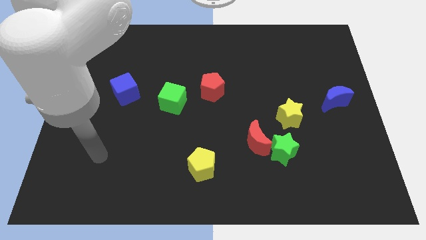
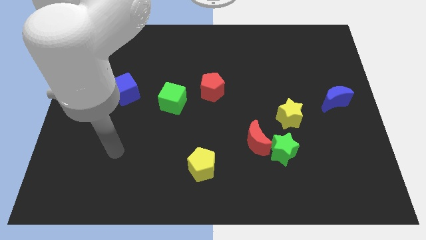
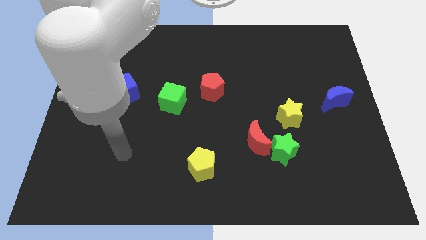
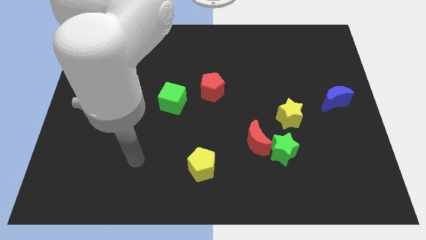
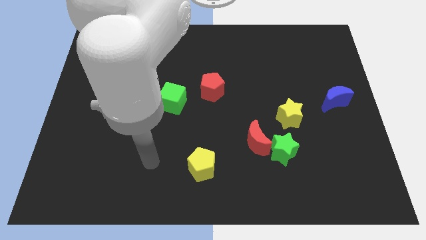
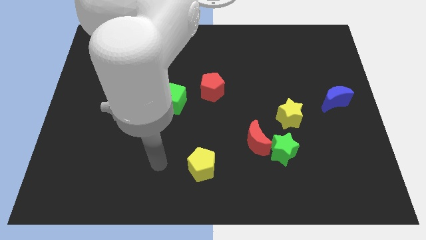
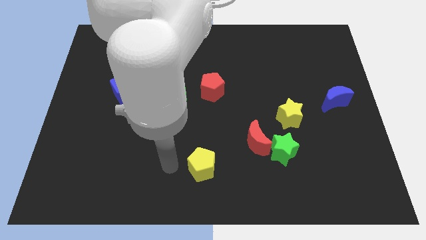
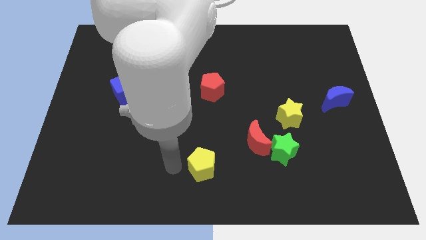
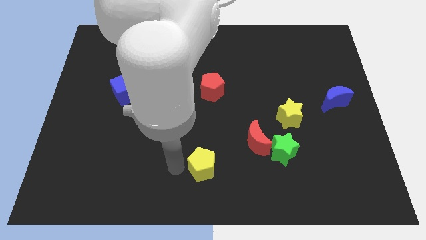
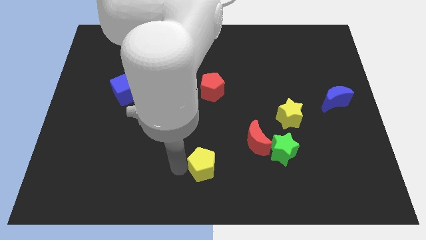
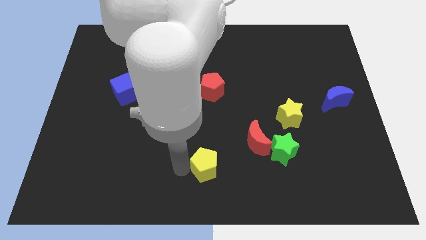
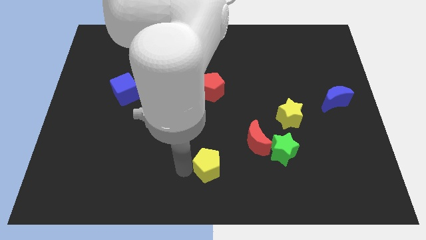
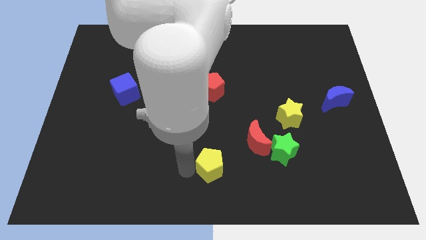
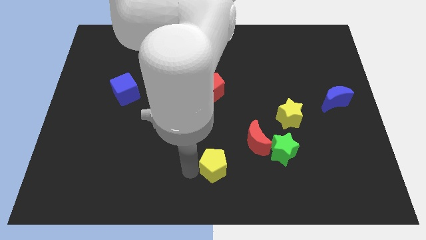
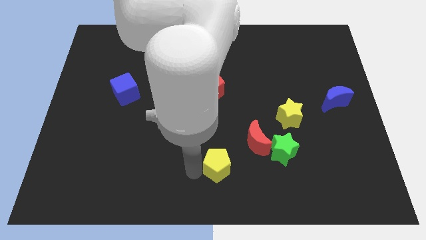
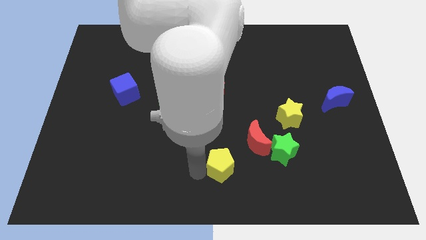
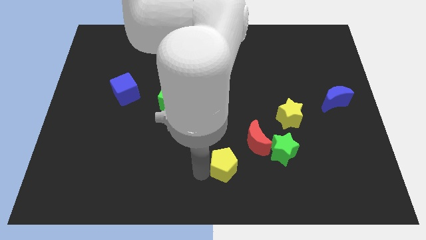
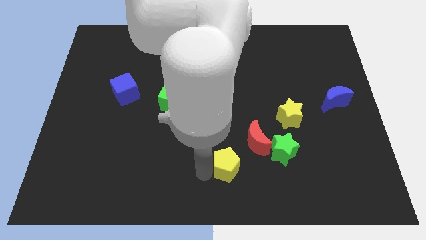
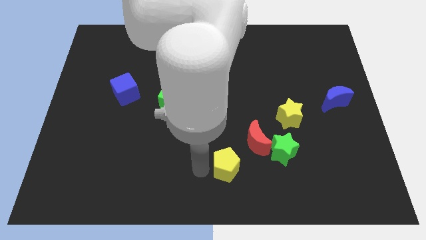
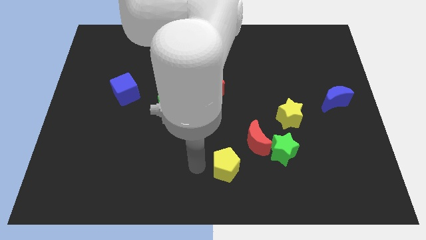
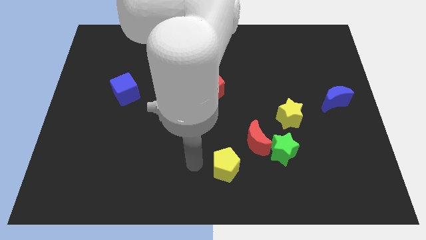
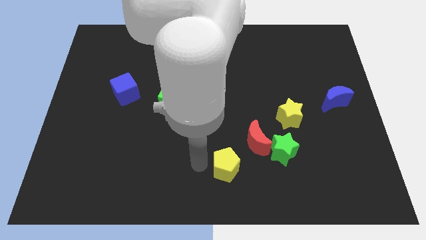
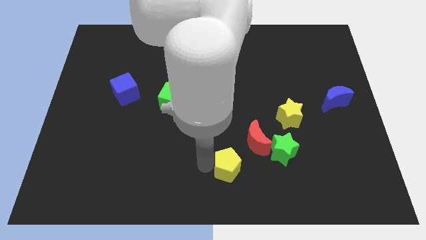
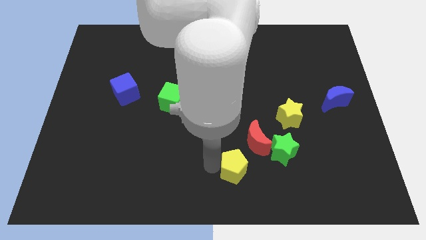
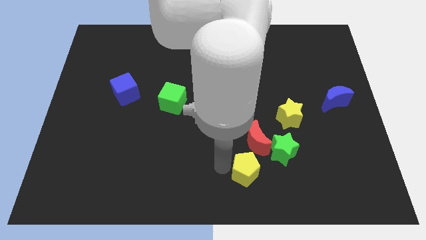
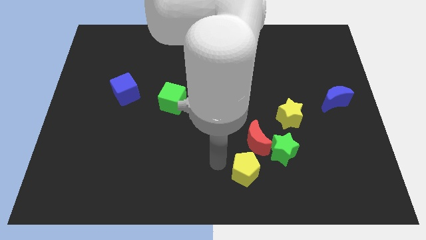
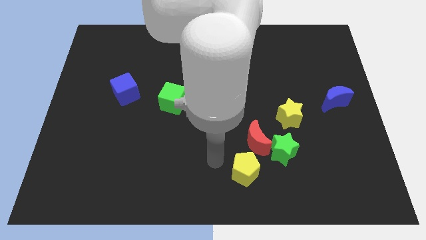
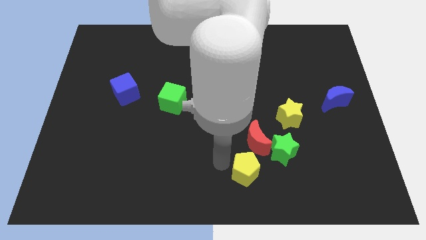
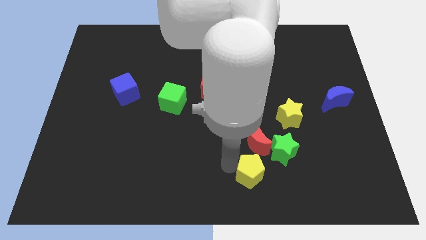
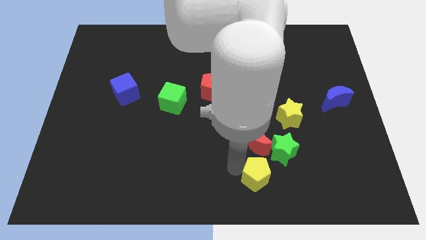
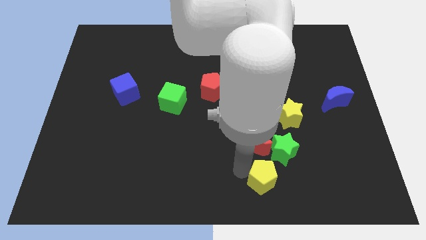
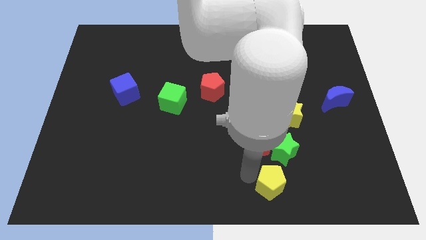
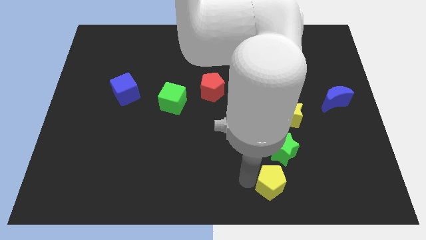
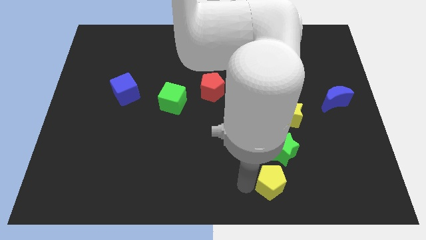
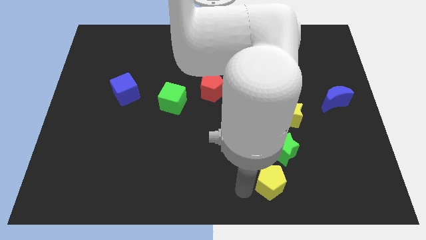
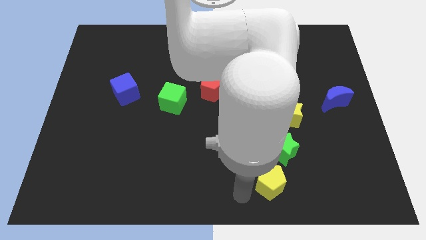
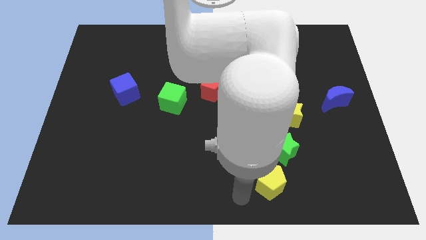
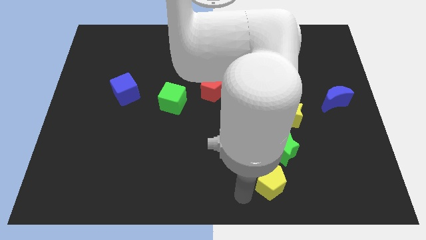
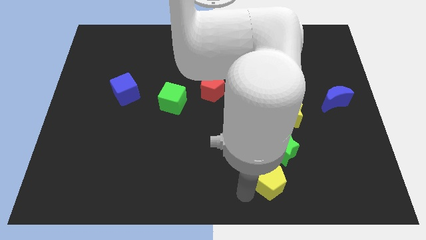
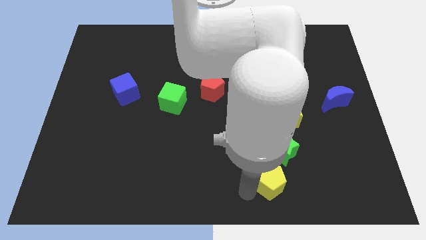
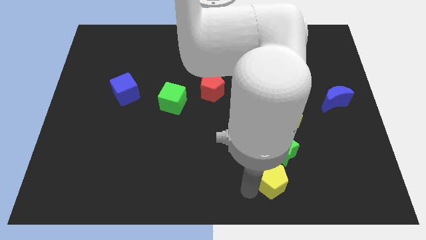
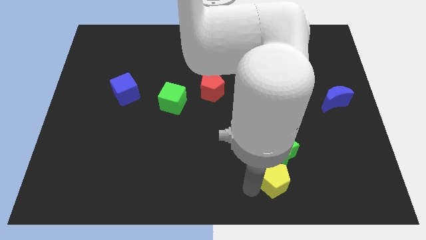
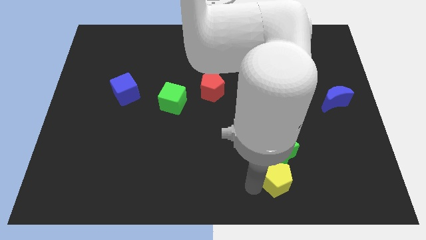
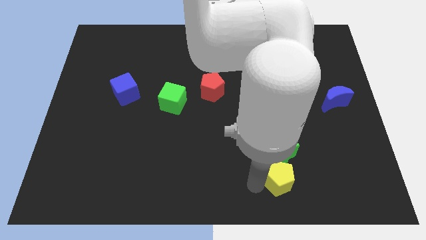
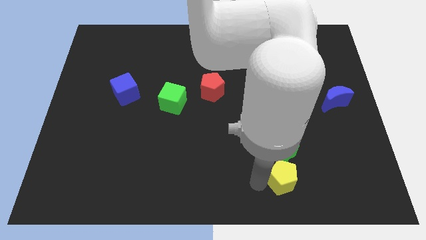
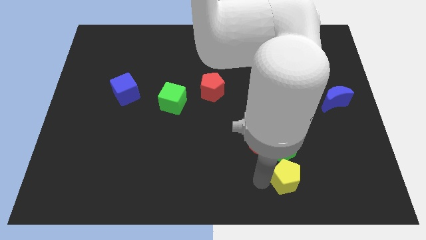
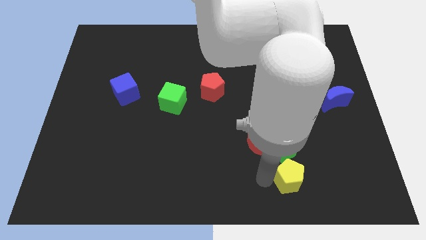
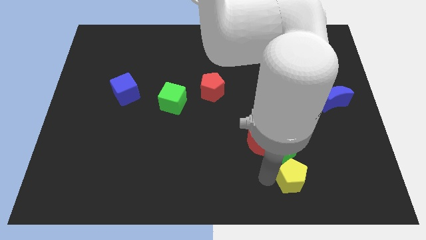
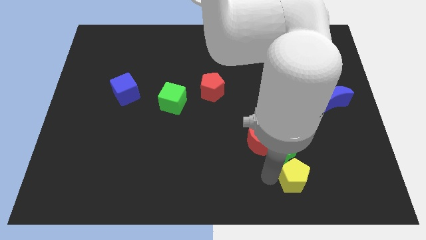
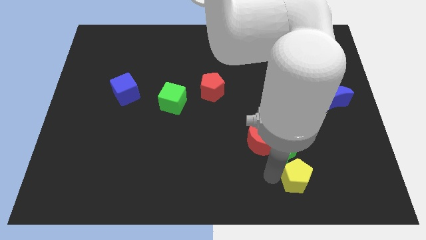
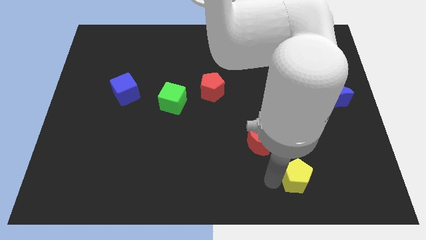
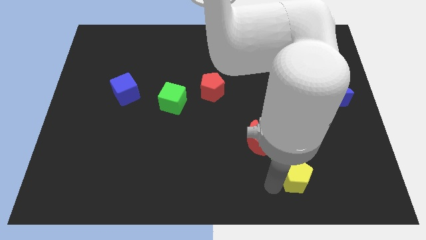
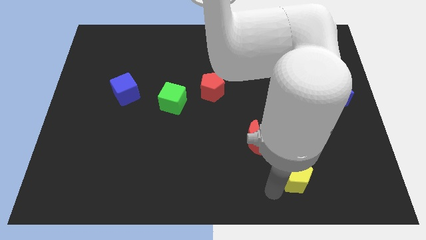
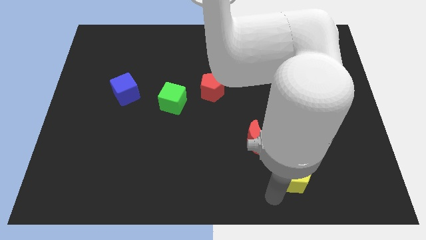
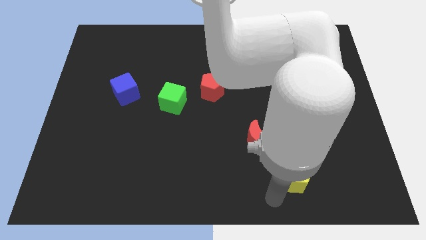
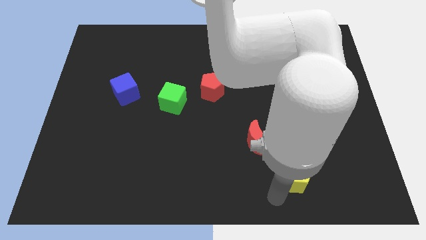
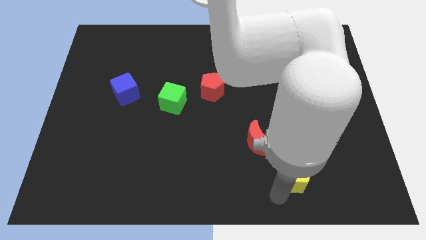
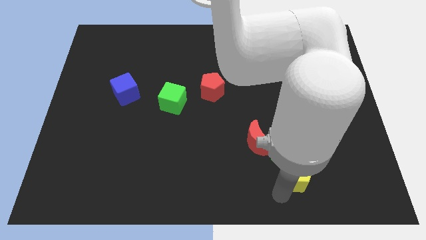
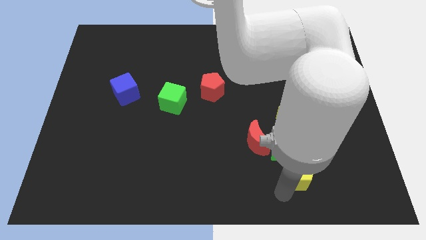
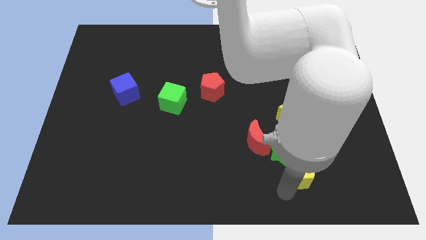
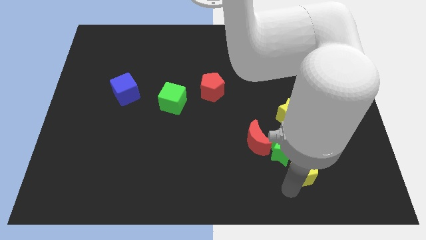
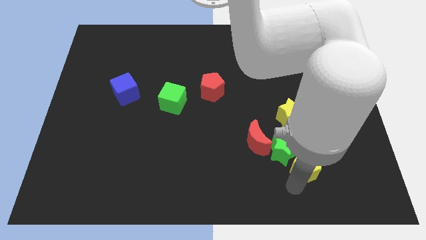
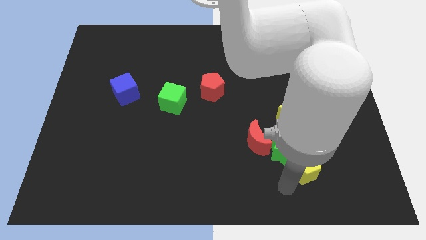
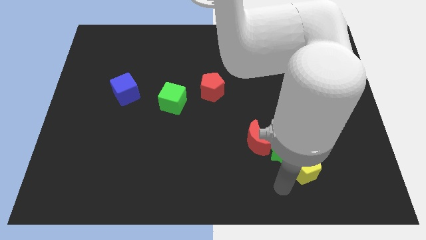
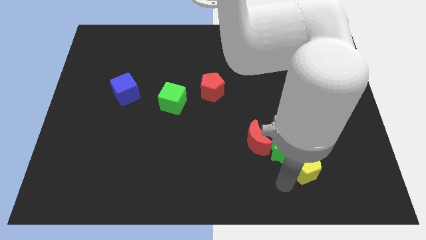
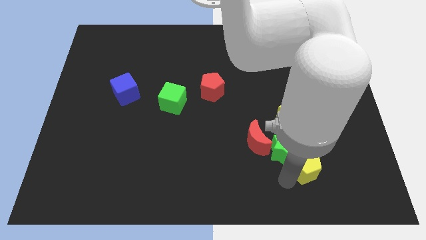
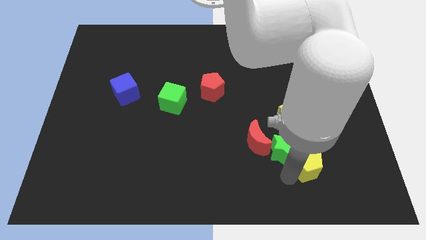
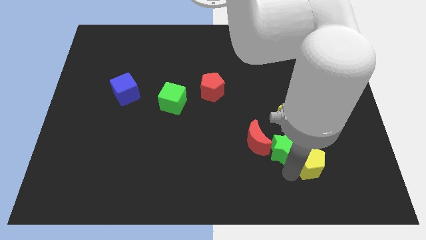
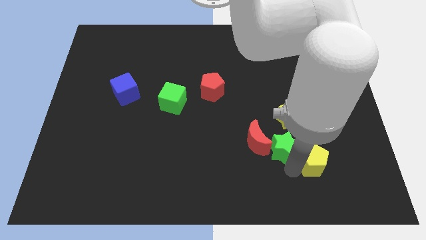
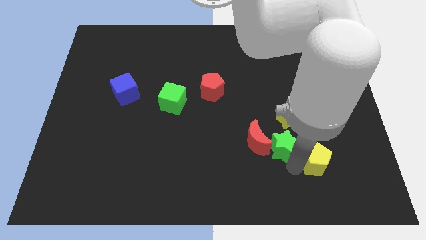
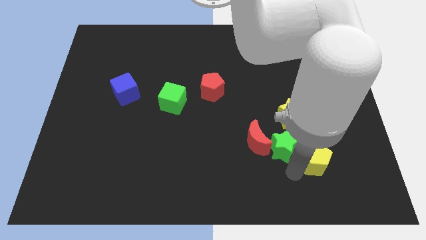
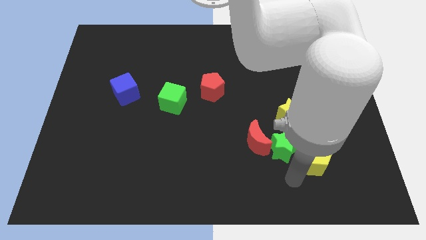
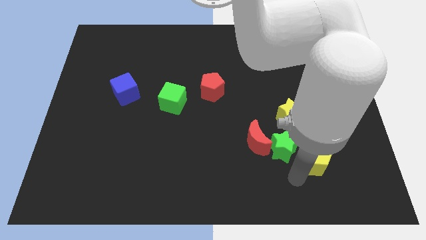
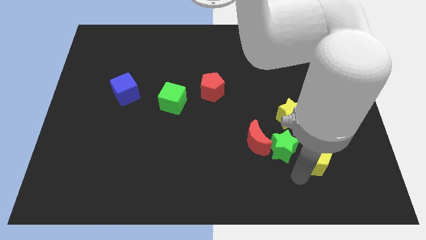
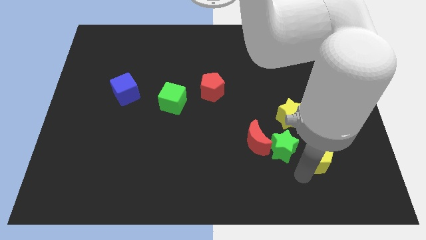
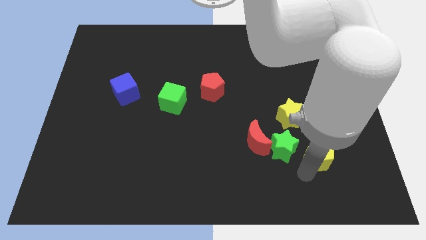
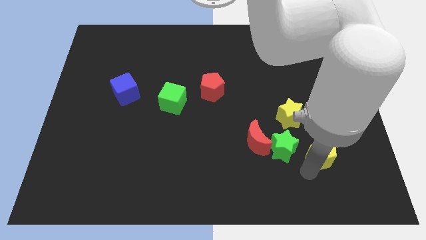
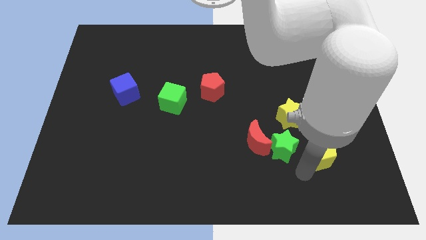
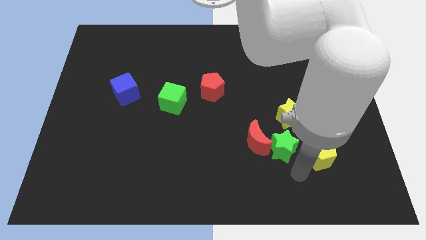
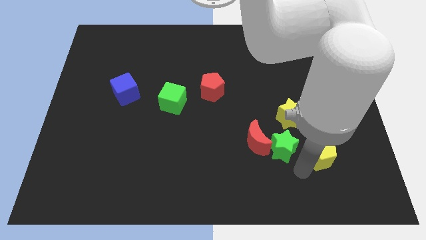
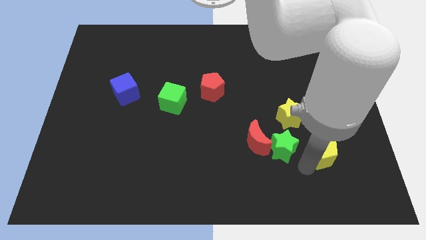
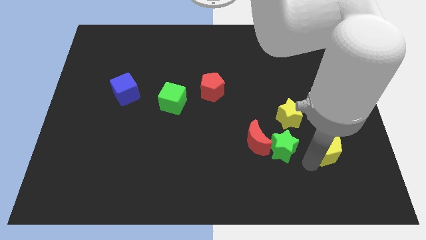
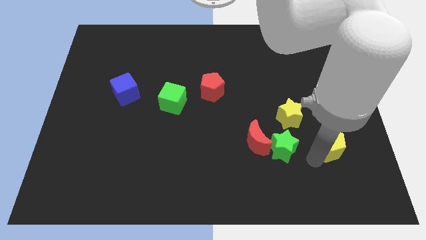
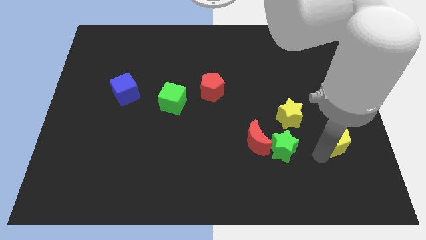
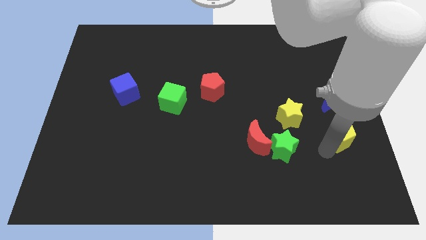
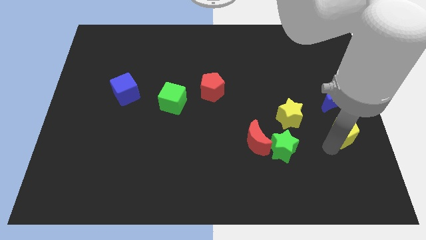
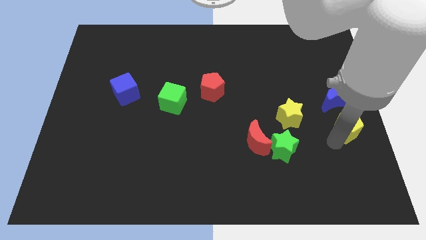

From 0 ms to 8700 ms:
push the yellow pentagon to the right side
